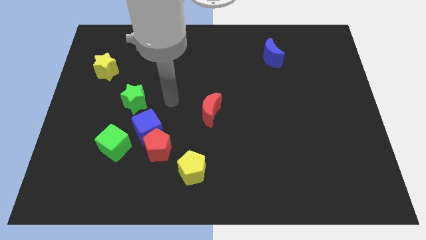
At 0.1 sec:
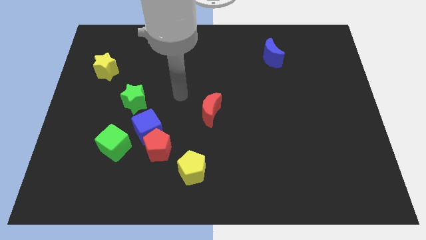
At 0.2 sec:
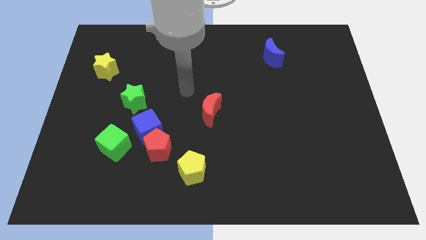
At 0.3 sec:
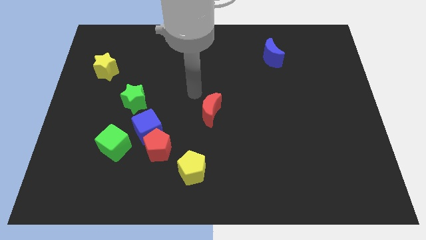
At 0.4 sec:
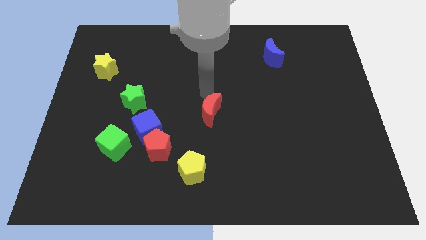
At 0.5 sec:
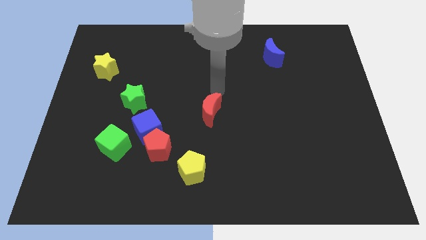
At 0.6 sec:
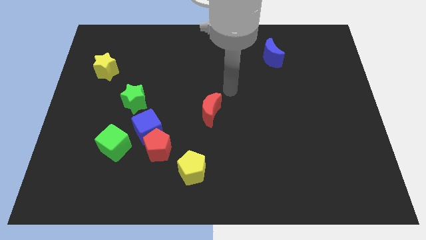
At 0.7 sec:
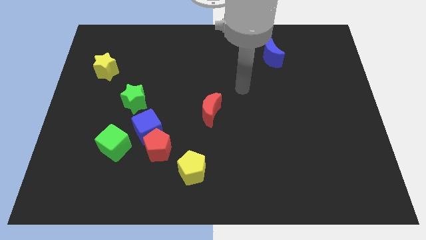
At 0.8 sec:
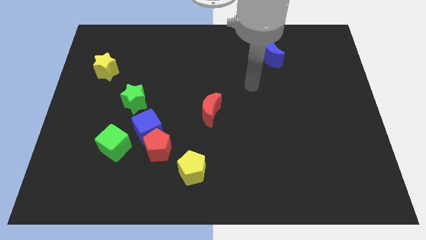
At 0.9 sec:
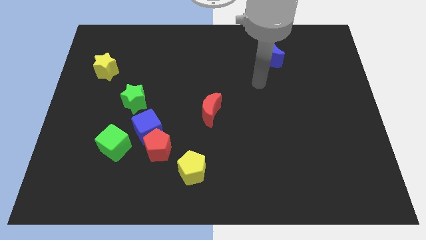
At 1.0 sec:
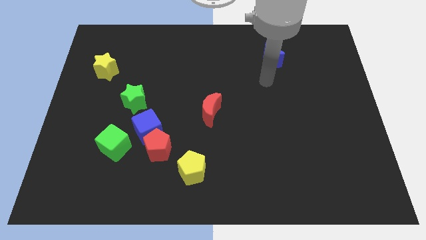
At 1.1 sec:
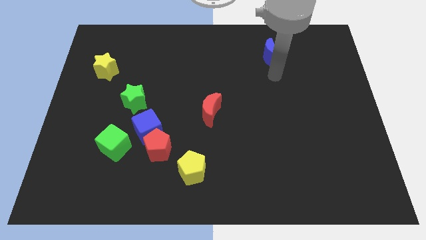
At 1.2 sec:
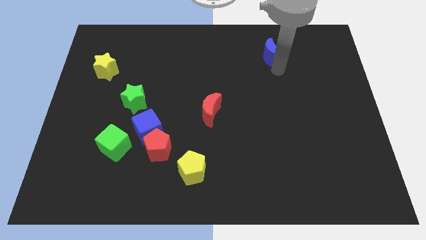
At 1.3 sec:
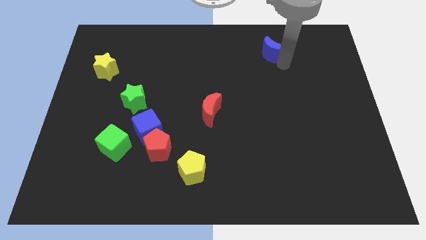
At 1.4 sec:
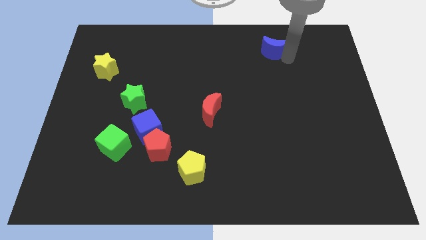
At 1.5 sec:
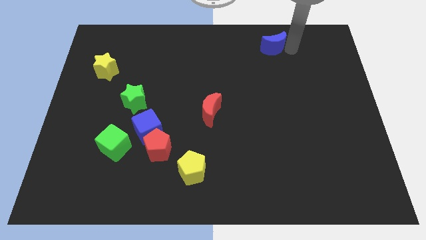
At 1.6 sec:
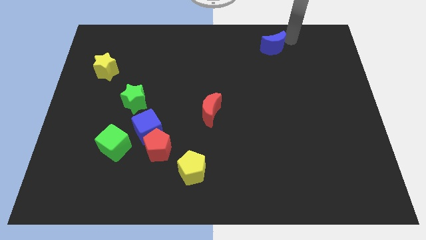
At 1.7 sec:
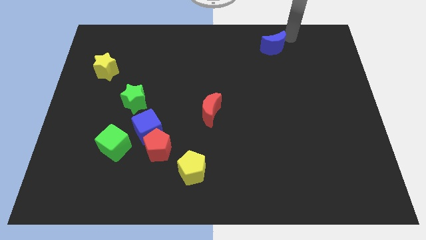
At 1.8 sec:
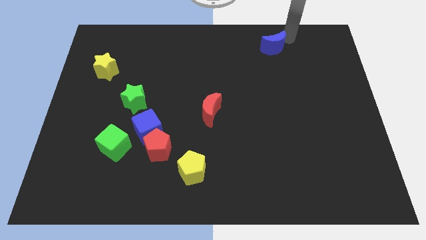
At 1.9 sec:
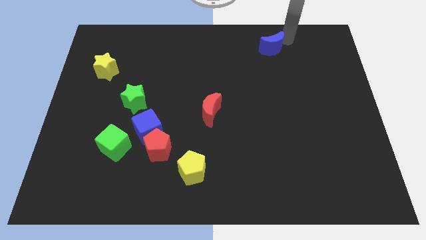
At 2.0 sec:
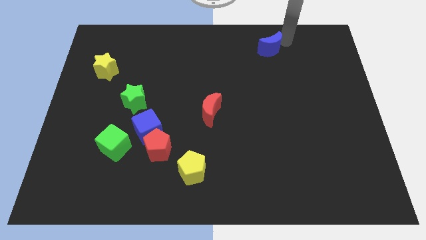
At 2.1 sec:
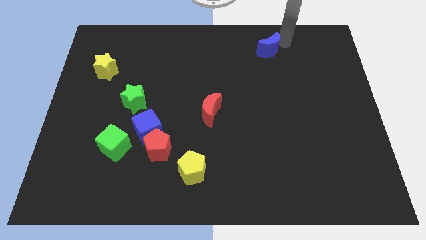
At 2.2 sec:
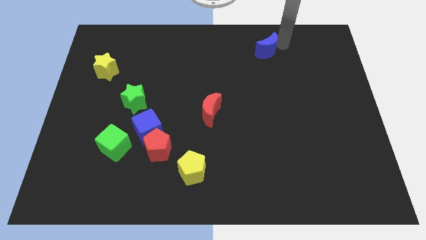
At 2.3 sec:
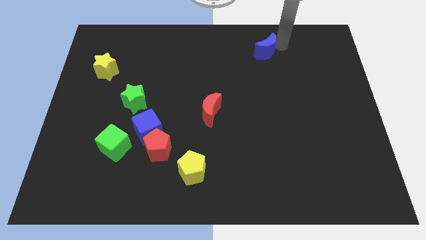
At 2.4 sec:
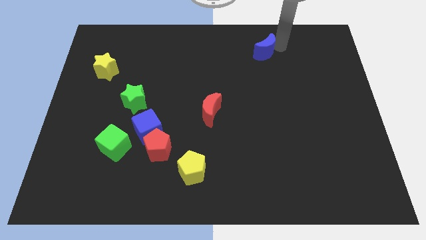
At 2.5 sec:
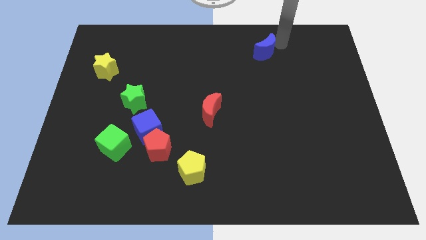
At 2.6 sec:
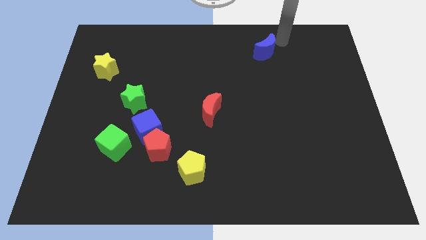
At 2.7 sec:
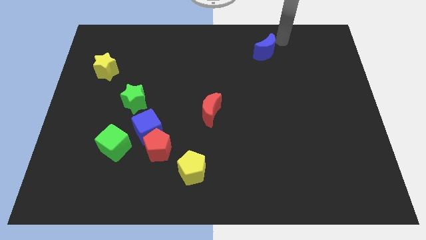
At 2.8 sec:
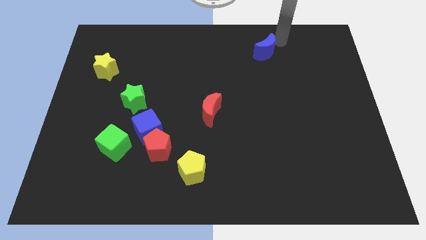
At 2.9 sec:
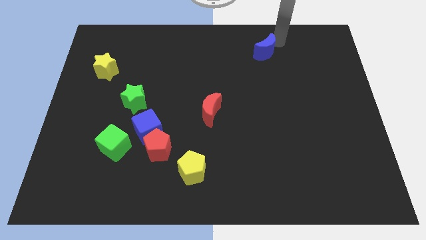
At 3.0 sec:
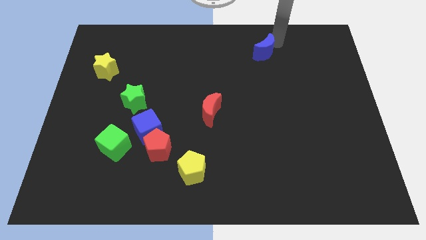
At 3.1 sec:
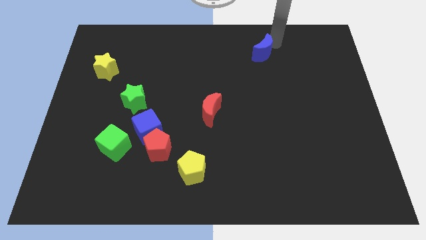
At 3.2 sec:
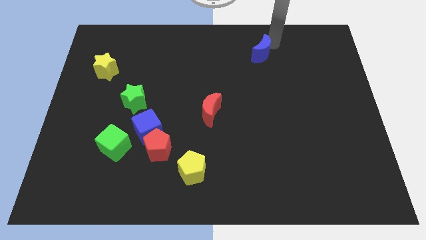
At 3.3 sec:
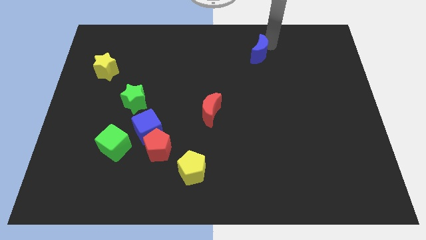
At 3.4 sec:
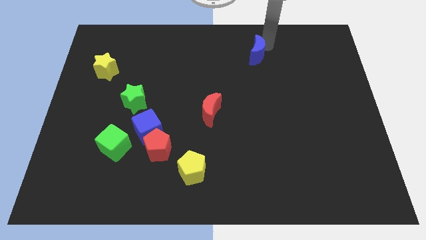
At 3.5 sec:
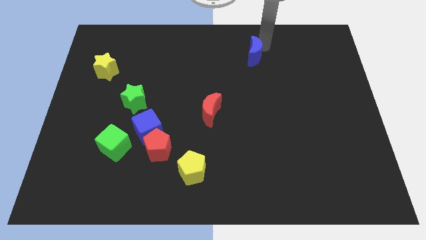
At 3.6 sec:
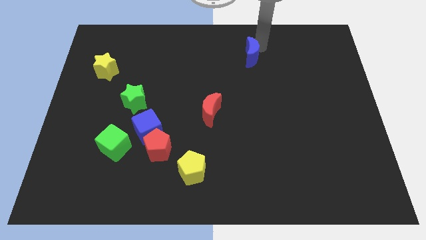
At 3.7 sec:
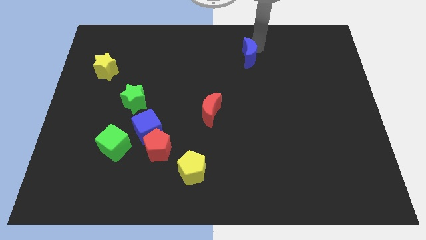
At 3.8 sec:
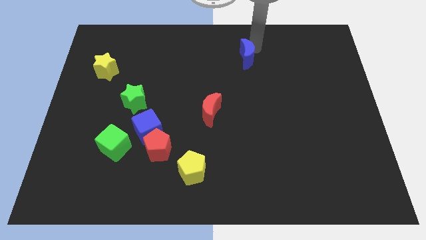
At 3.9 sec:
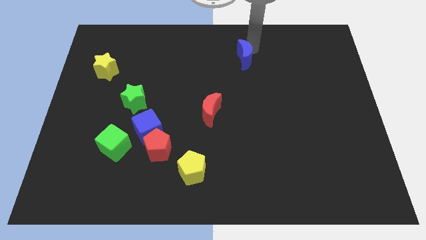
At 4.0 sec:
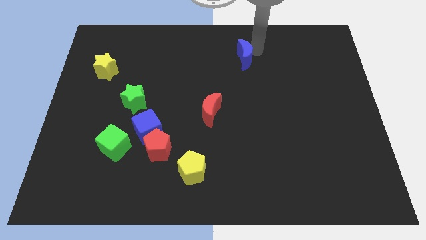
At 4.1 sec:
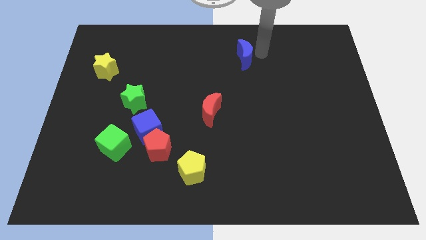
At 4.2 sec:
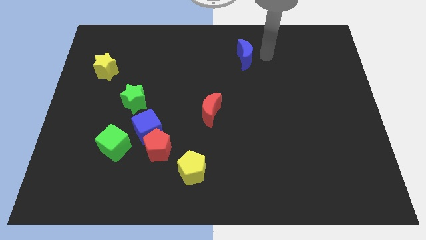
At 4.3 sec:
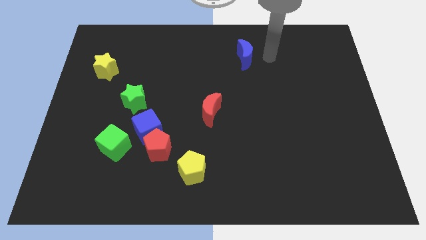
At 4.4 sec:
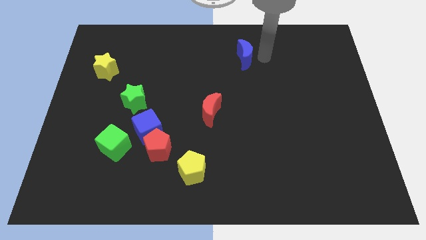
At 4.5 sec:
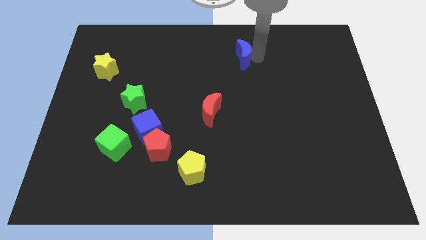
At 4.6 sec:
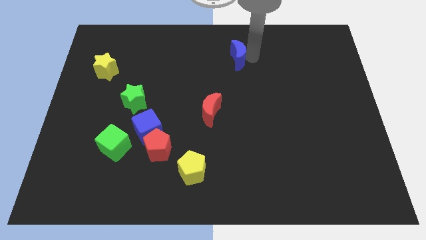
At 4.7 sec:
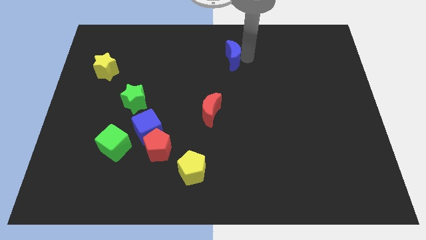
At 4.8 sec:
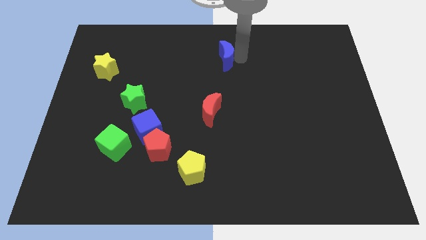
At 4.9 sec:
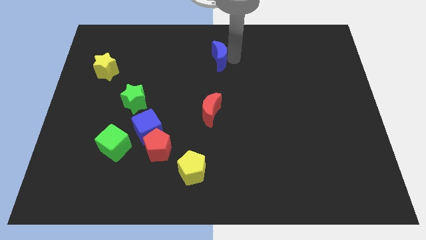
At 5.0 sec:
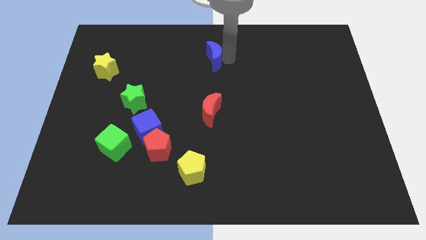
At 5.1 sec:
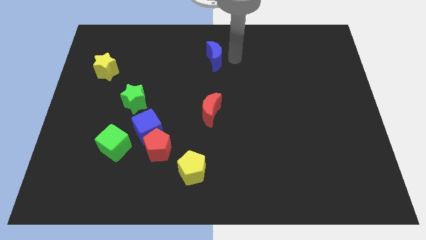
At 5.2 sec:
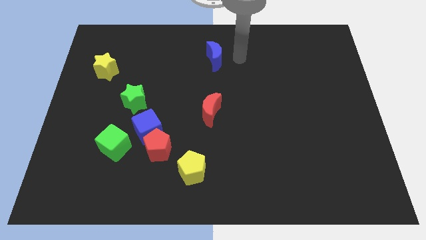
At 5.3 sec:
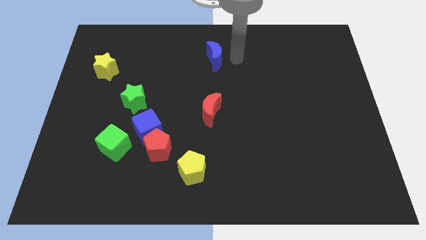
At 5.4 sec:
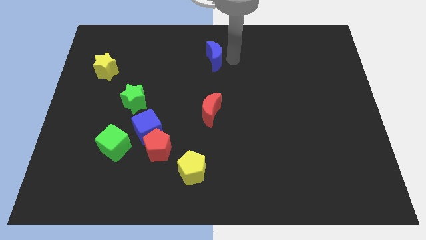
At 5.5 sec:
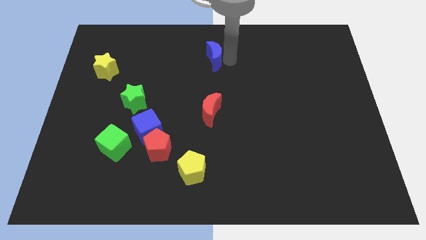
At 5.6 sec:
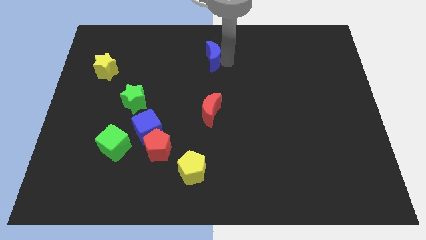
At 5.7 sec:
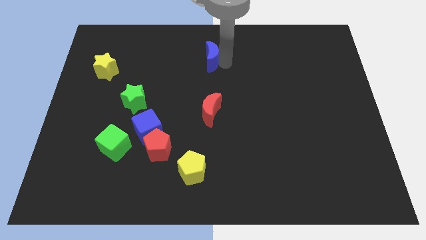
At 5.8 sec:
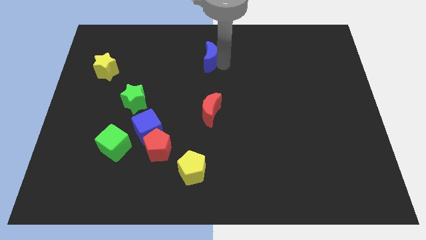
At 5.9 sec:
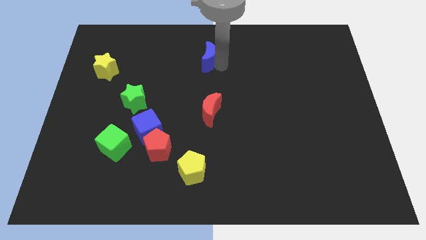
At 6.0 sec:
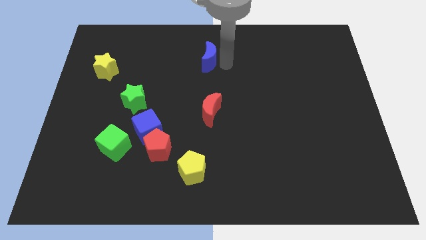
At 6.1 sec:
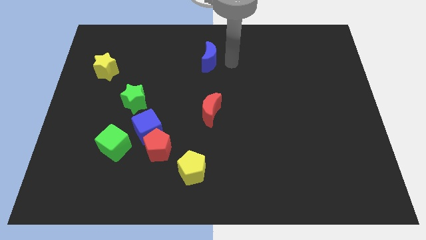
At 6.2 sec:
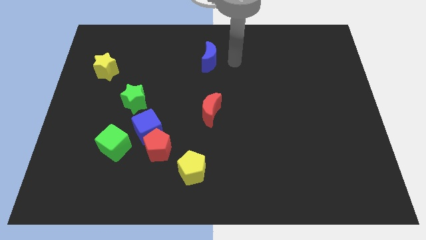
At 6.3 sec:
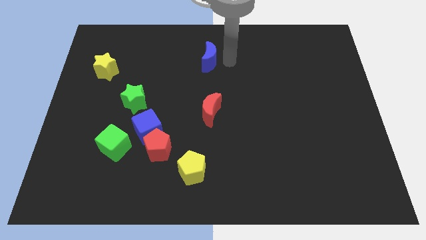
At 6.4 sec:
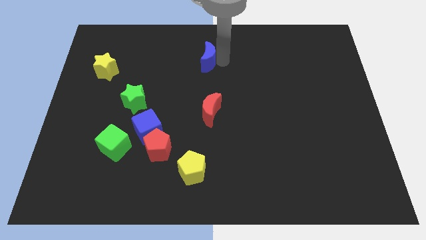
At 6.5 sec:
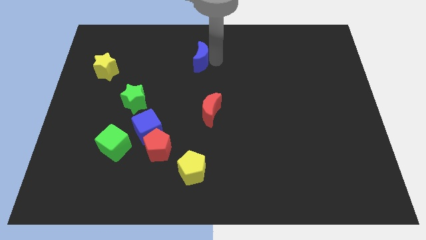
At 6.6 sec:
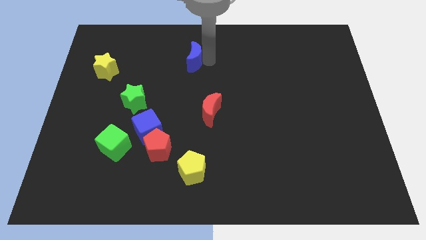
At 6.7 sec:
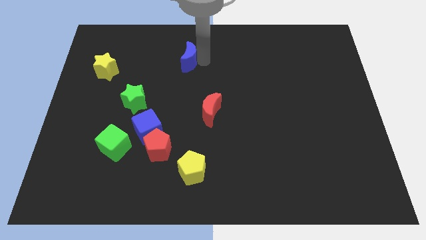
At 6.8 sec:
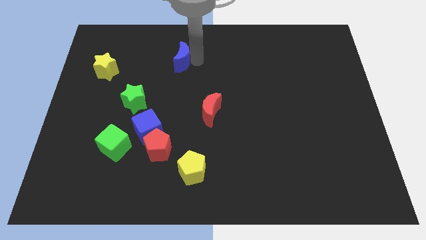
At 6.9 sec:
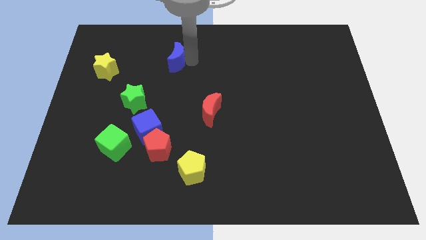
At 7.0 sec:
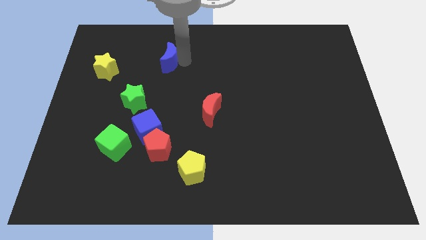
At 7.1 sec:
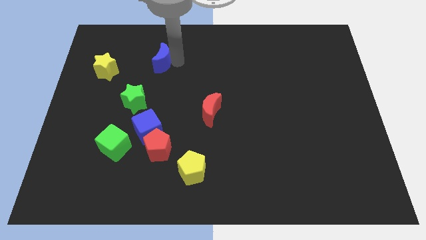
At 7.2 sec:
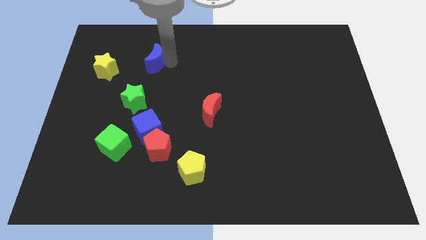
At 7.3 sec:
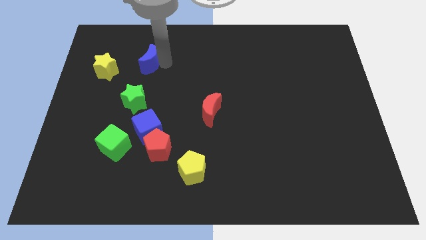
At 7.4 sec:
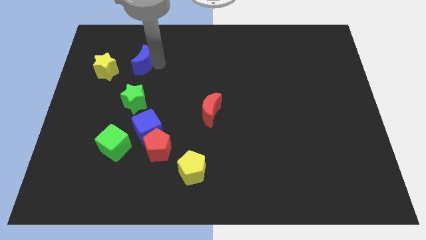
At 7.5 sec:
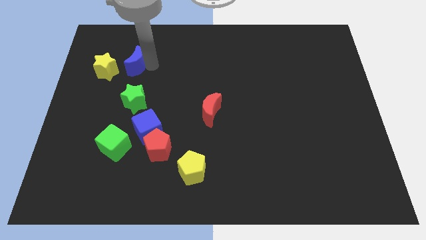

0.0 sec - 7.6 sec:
slide the blue moon to the top right of the yellow star
